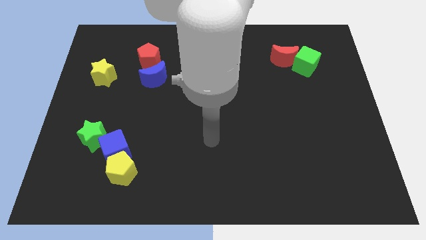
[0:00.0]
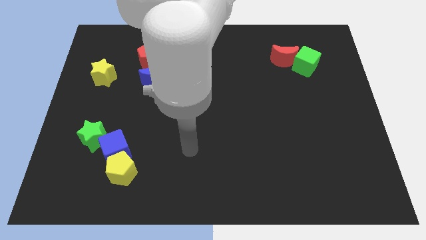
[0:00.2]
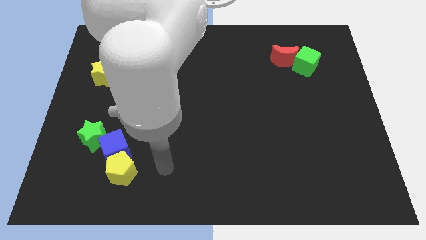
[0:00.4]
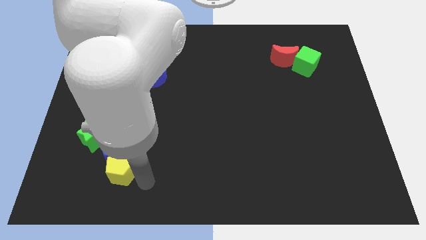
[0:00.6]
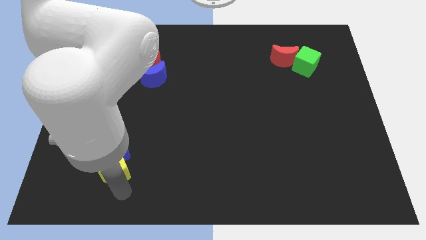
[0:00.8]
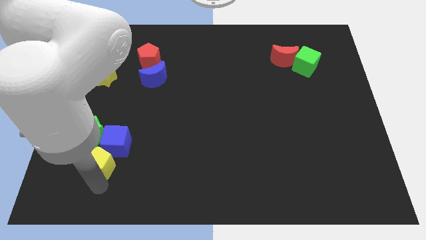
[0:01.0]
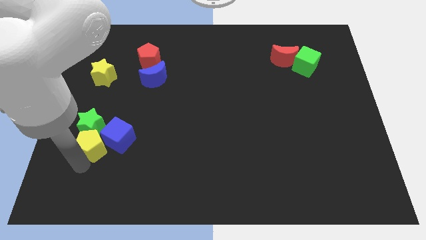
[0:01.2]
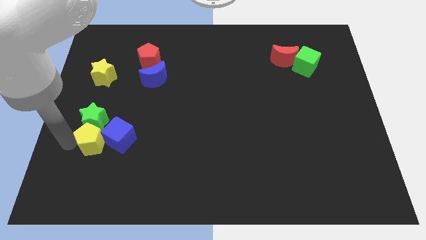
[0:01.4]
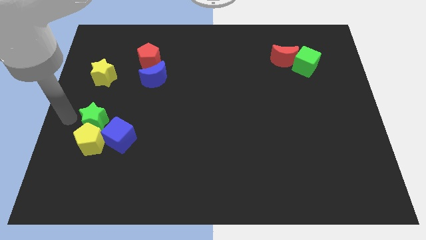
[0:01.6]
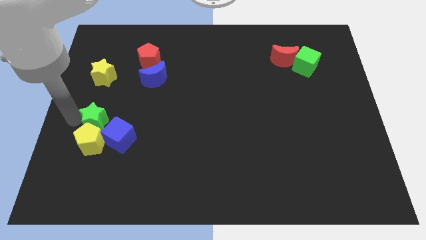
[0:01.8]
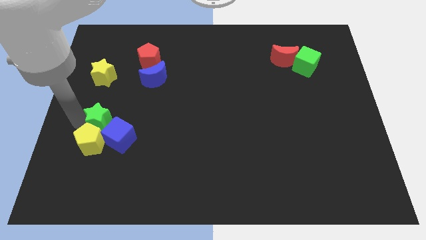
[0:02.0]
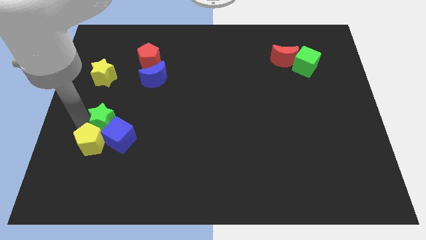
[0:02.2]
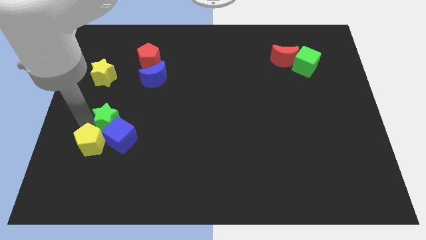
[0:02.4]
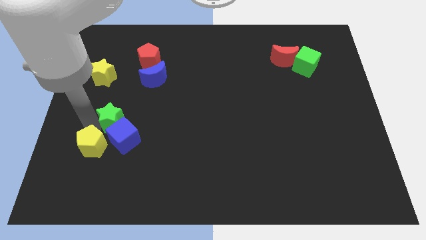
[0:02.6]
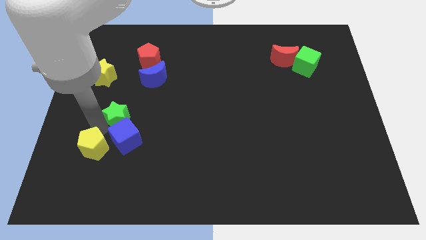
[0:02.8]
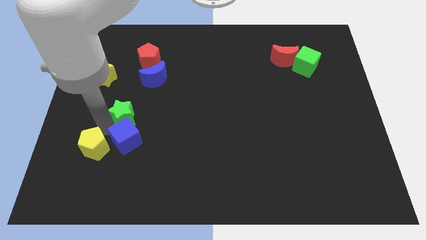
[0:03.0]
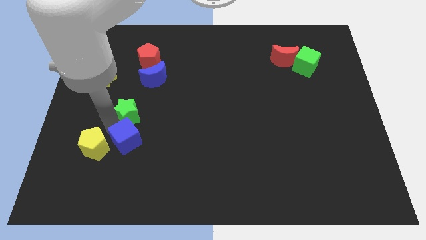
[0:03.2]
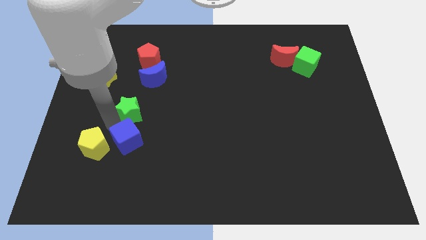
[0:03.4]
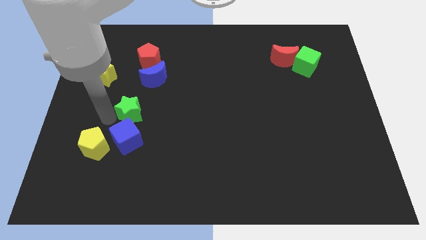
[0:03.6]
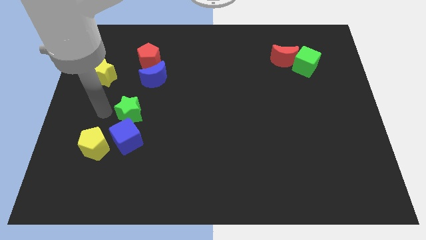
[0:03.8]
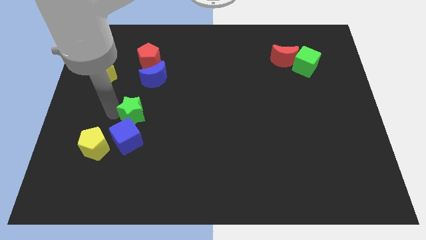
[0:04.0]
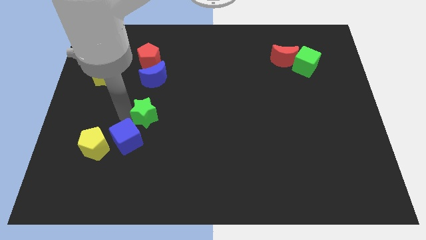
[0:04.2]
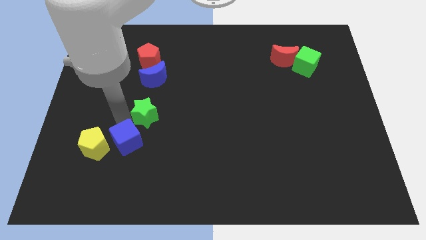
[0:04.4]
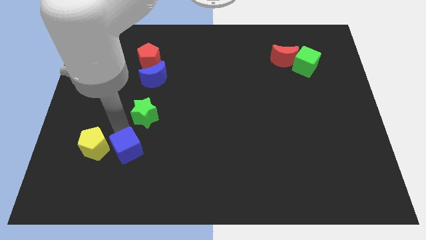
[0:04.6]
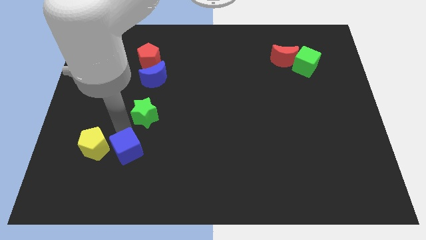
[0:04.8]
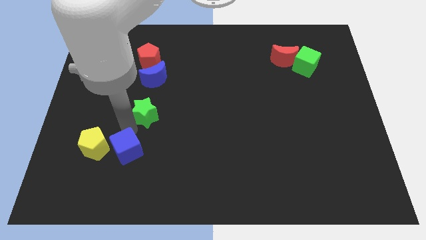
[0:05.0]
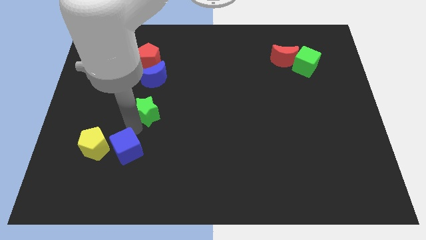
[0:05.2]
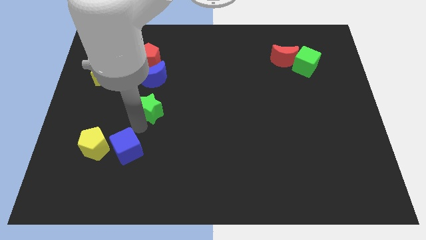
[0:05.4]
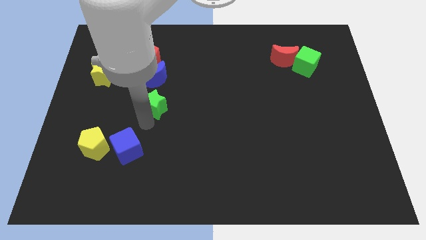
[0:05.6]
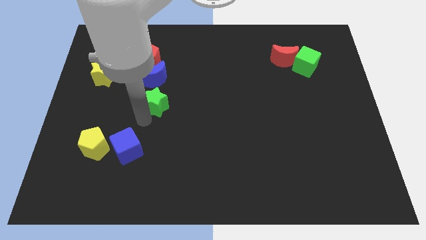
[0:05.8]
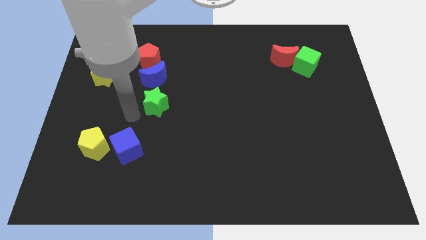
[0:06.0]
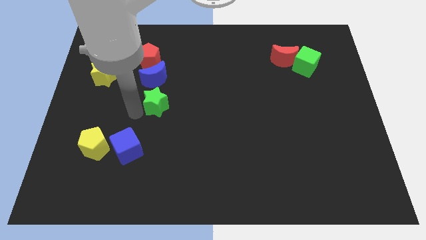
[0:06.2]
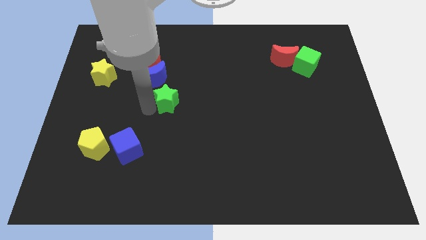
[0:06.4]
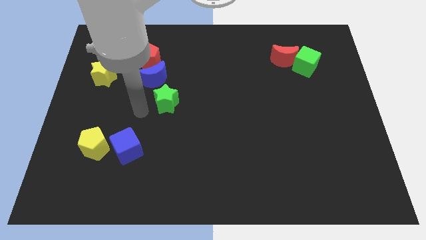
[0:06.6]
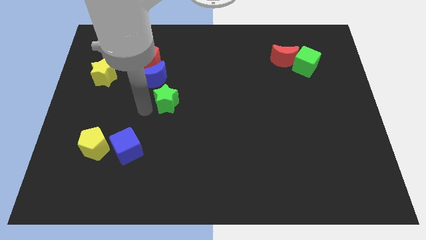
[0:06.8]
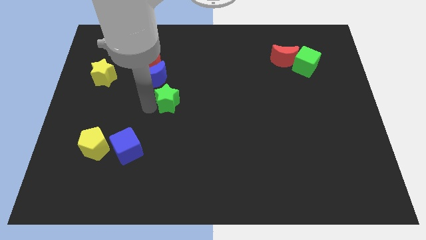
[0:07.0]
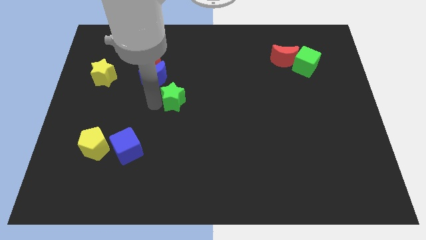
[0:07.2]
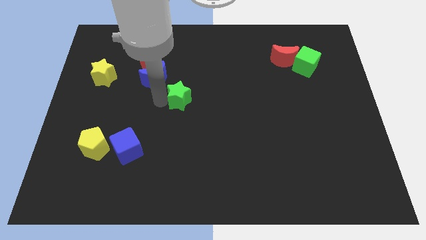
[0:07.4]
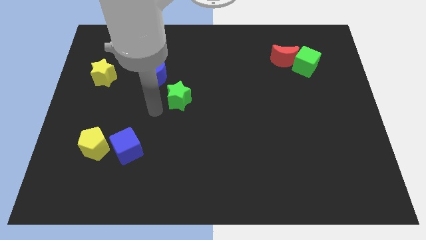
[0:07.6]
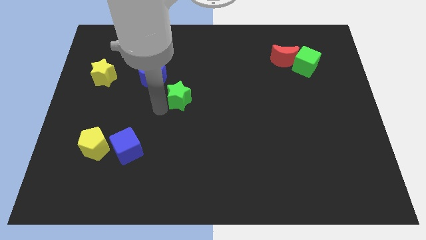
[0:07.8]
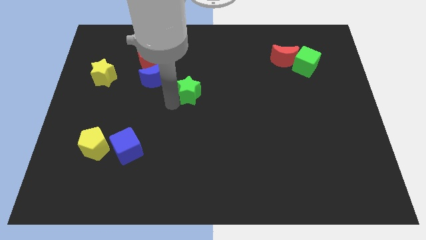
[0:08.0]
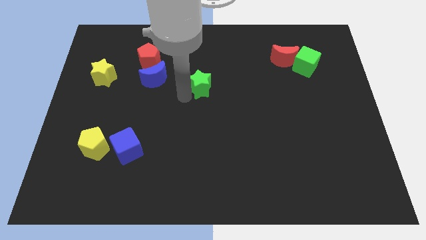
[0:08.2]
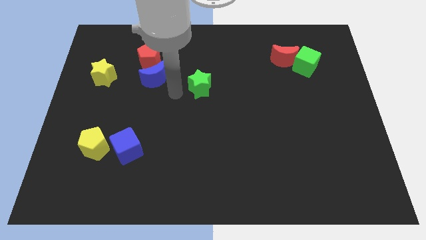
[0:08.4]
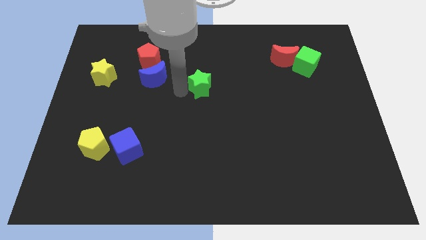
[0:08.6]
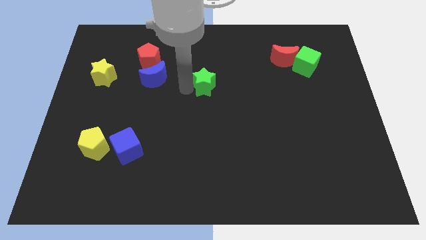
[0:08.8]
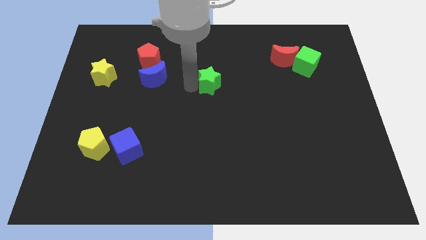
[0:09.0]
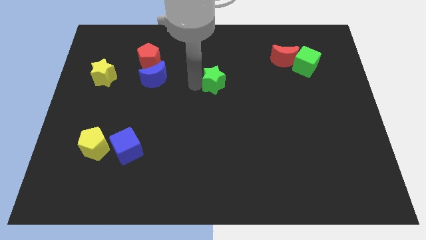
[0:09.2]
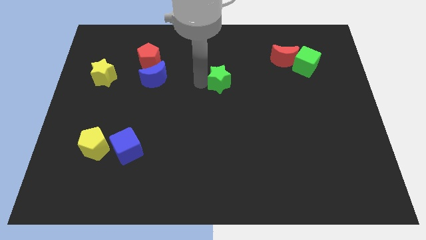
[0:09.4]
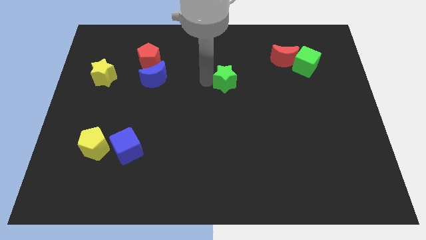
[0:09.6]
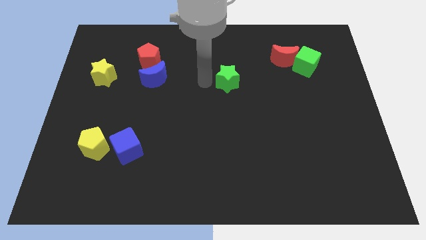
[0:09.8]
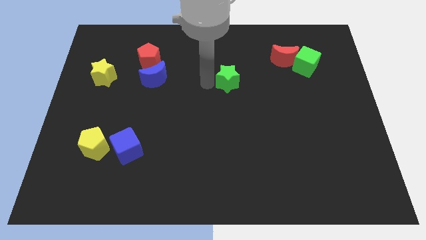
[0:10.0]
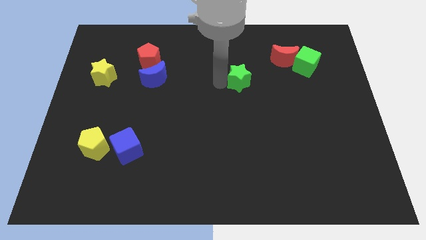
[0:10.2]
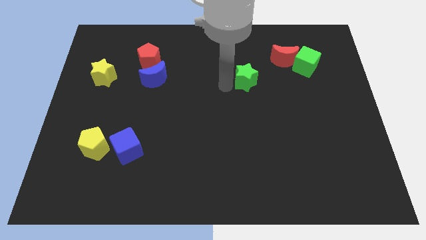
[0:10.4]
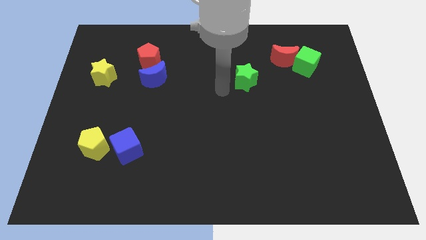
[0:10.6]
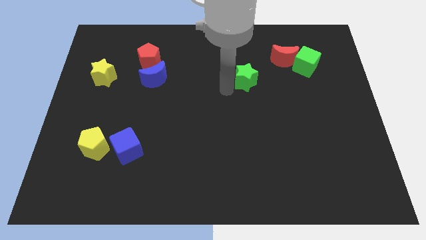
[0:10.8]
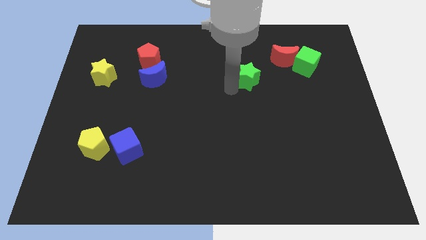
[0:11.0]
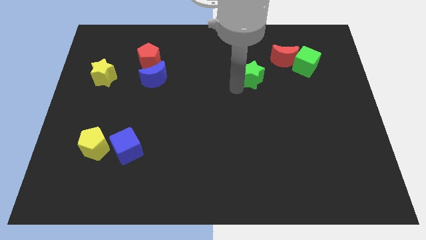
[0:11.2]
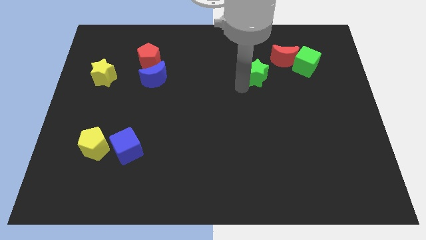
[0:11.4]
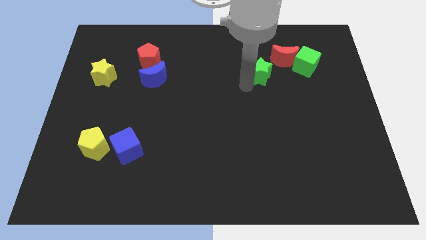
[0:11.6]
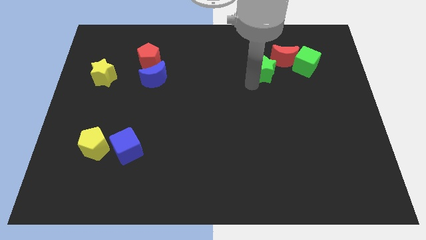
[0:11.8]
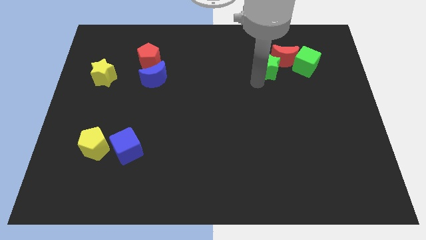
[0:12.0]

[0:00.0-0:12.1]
slide the green star towards the red moon

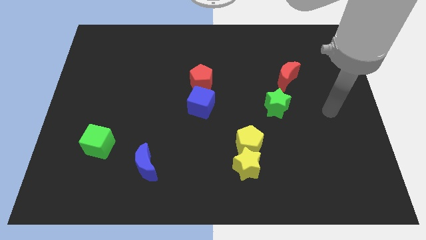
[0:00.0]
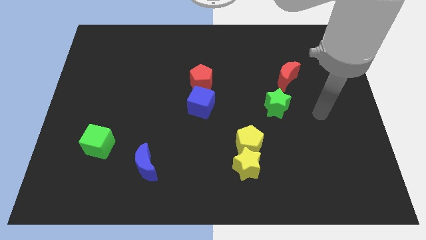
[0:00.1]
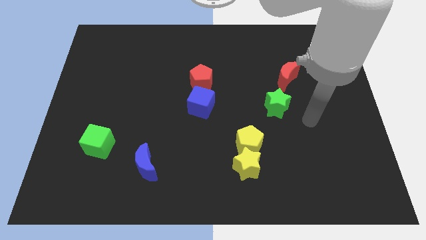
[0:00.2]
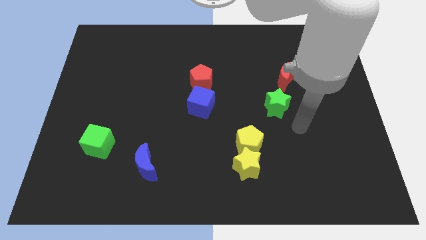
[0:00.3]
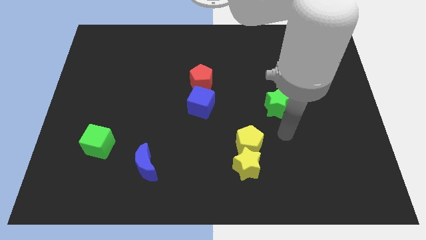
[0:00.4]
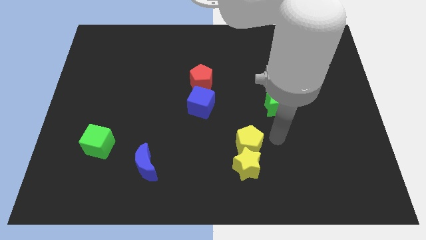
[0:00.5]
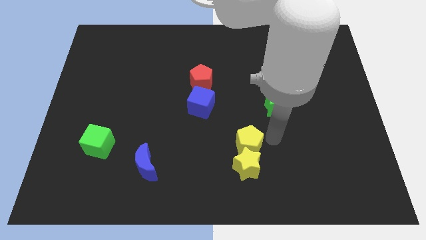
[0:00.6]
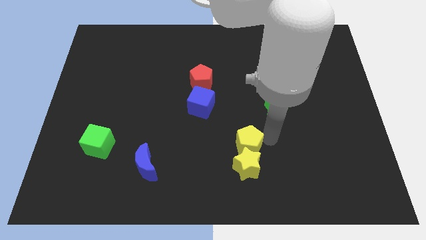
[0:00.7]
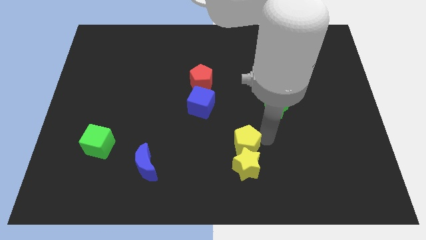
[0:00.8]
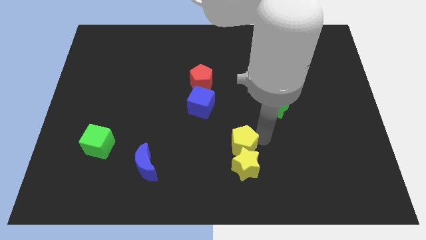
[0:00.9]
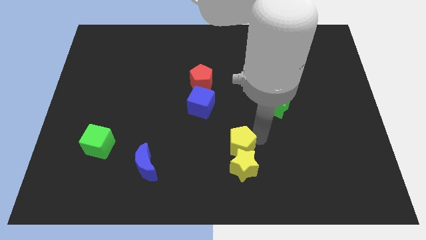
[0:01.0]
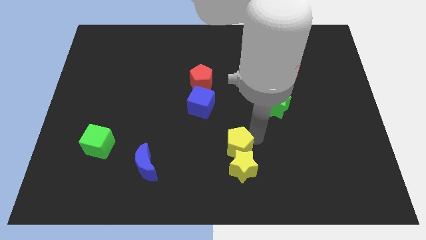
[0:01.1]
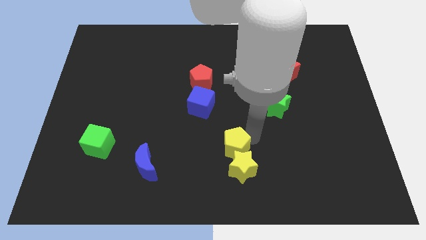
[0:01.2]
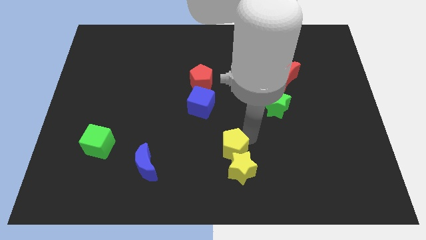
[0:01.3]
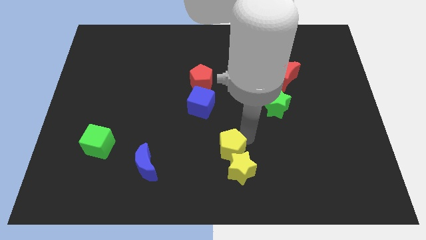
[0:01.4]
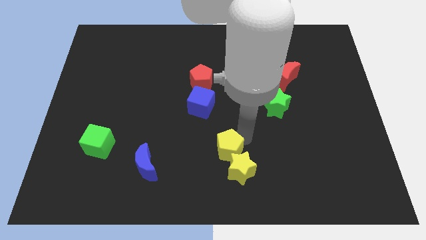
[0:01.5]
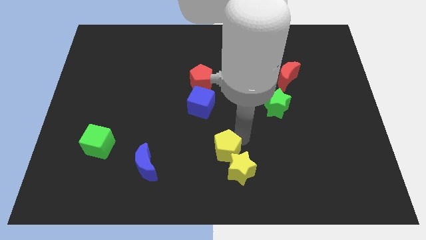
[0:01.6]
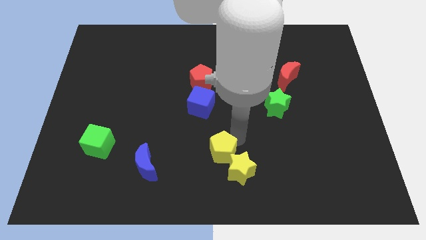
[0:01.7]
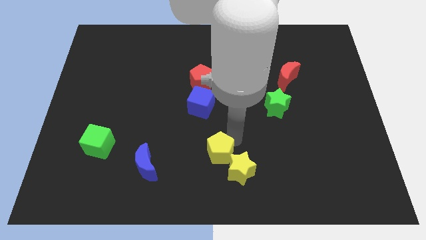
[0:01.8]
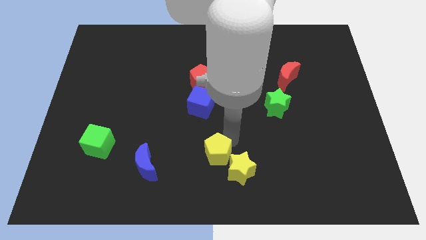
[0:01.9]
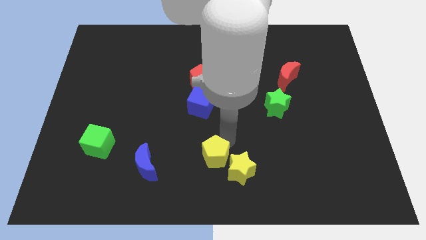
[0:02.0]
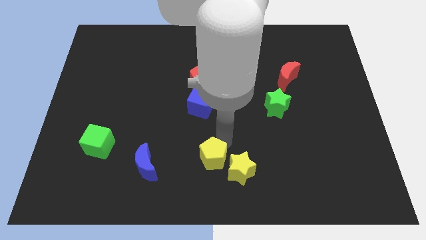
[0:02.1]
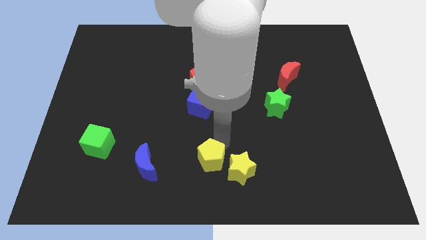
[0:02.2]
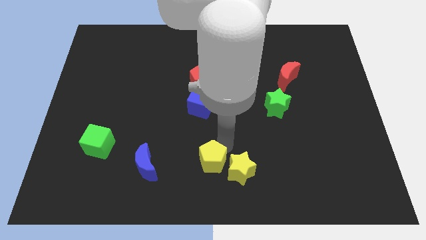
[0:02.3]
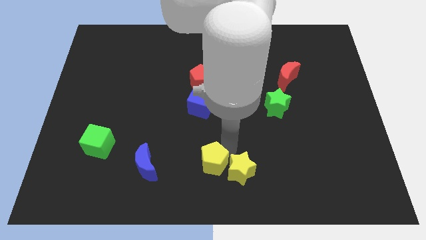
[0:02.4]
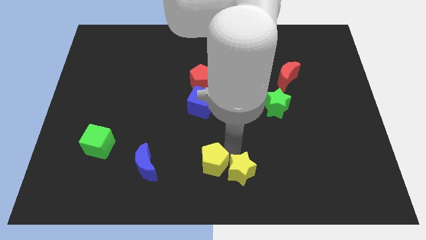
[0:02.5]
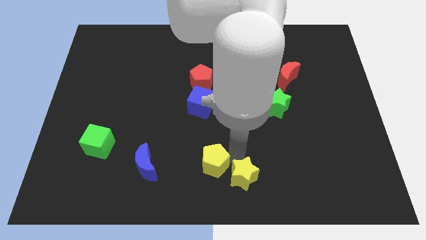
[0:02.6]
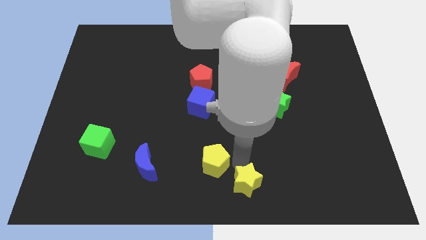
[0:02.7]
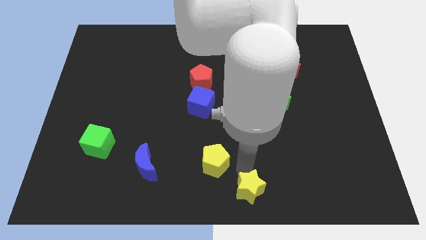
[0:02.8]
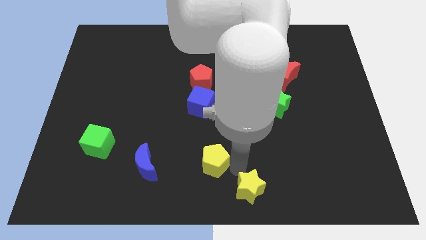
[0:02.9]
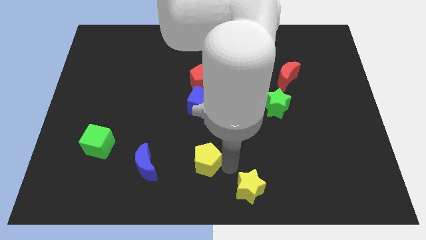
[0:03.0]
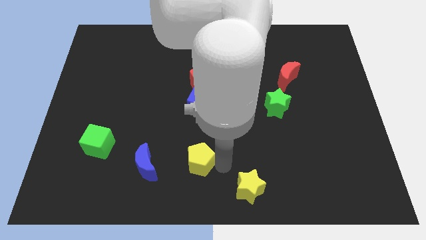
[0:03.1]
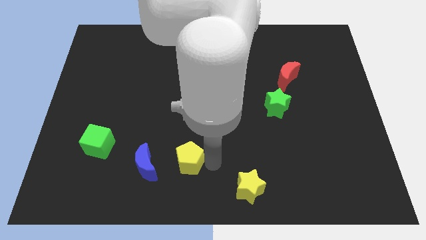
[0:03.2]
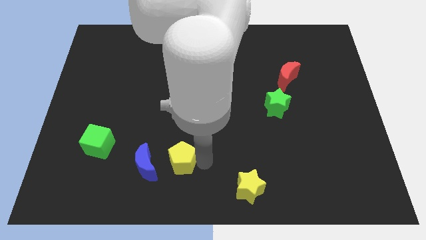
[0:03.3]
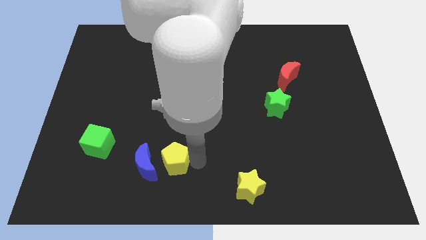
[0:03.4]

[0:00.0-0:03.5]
put the yellow pentagon towards the blue moon
